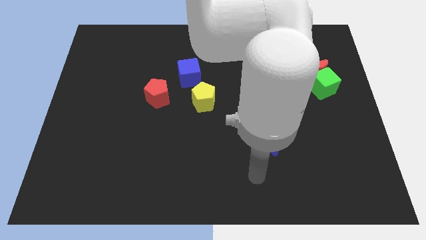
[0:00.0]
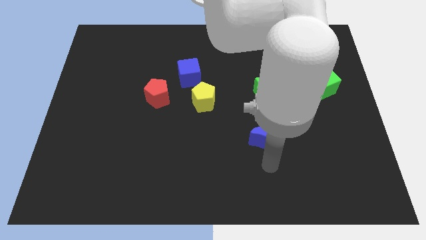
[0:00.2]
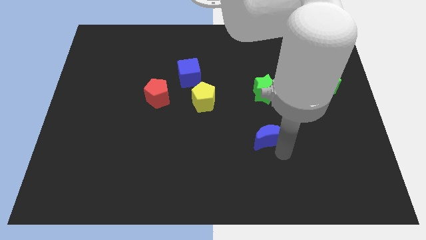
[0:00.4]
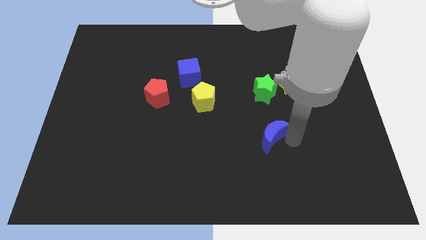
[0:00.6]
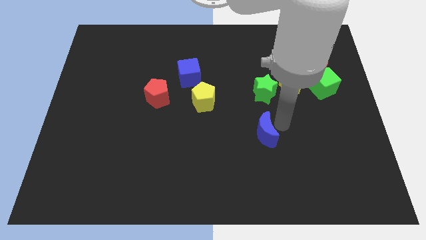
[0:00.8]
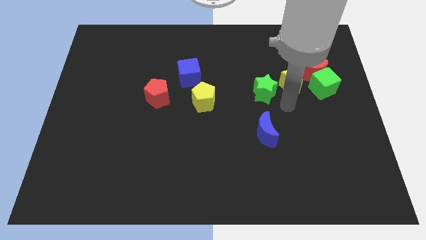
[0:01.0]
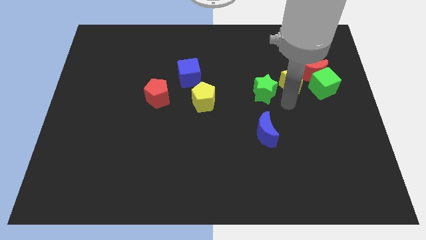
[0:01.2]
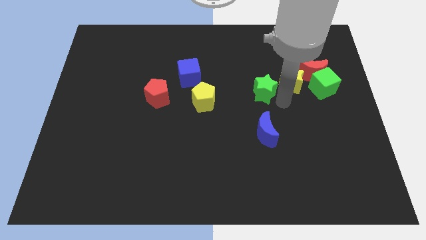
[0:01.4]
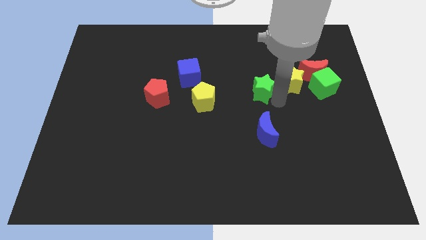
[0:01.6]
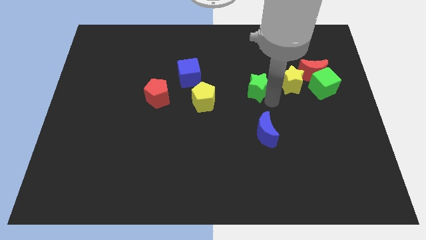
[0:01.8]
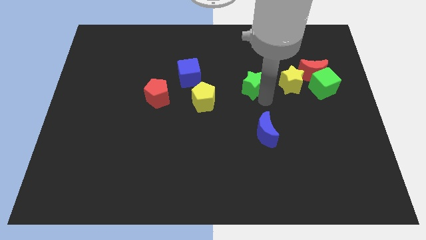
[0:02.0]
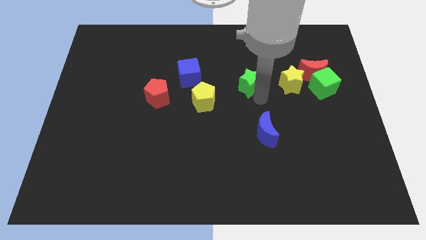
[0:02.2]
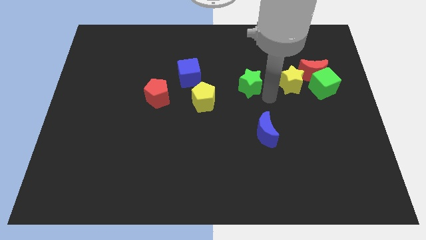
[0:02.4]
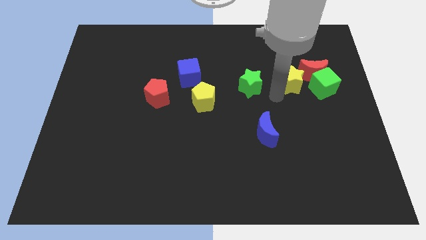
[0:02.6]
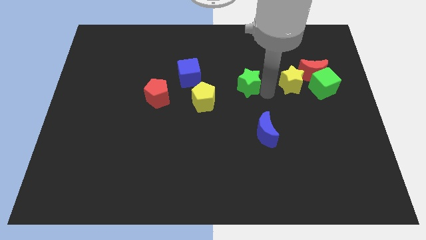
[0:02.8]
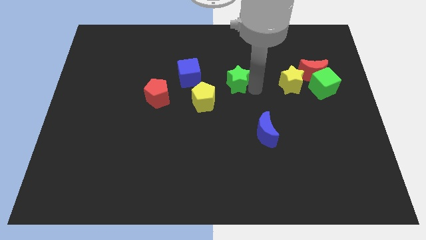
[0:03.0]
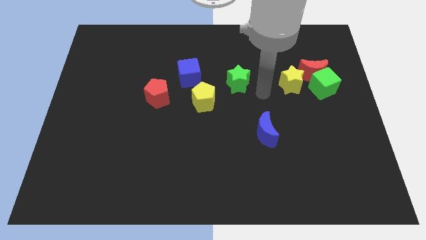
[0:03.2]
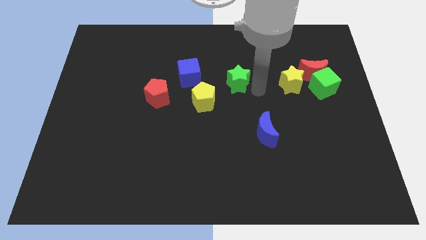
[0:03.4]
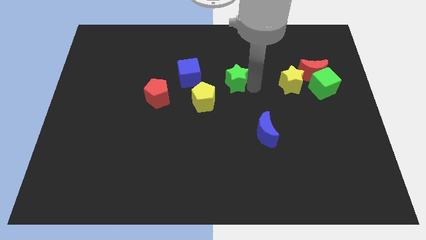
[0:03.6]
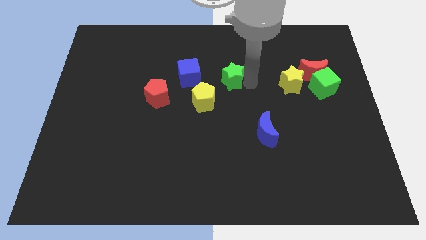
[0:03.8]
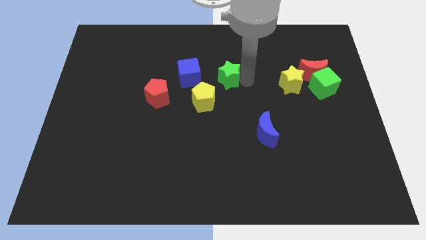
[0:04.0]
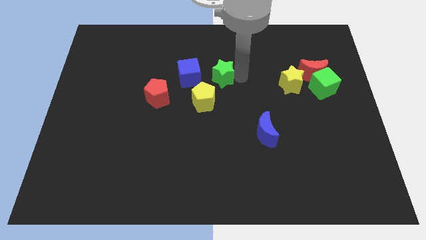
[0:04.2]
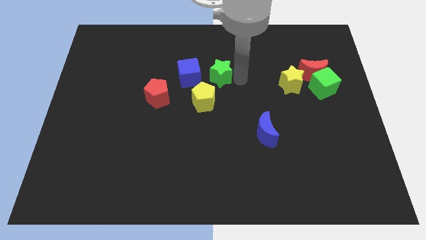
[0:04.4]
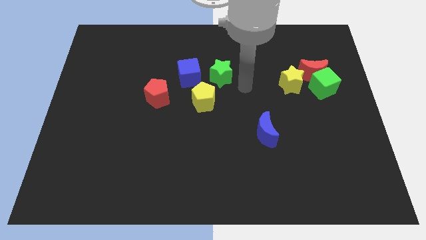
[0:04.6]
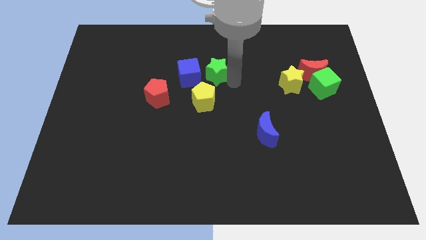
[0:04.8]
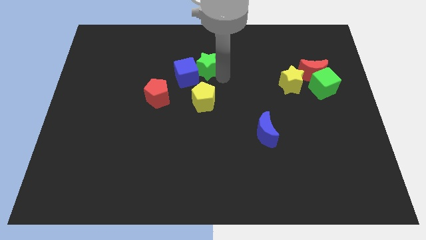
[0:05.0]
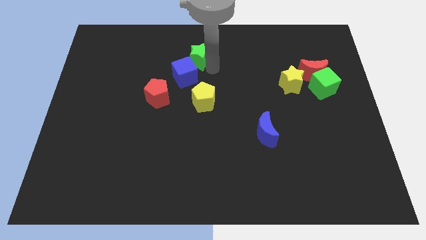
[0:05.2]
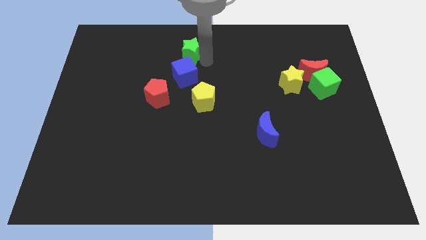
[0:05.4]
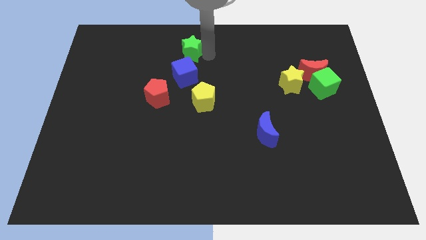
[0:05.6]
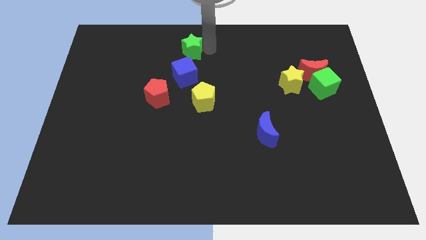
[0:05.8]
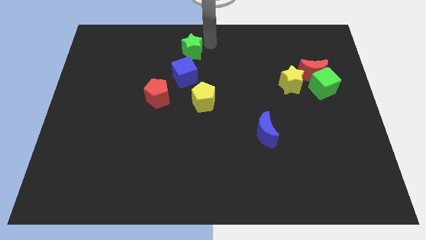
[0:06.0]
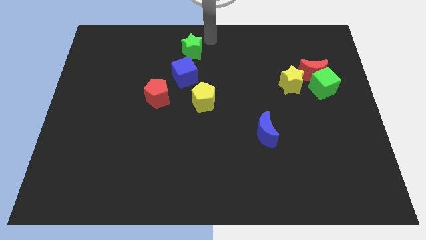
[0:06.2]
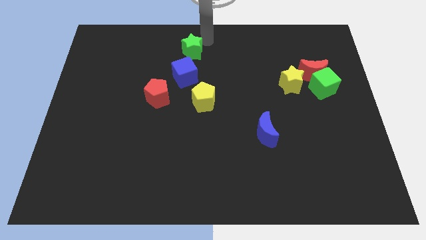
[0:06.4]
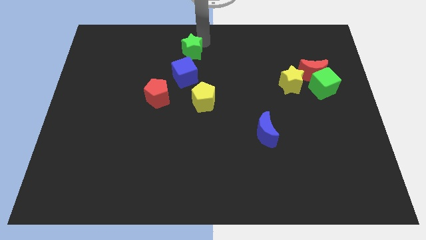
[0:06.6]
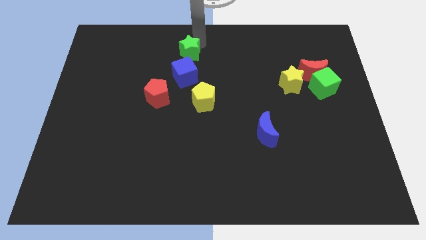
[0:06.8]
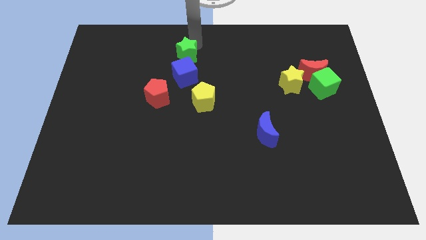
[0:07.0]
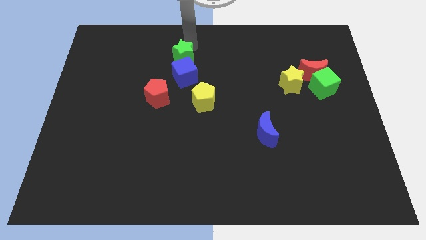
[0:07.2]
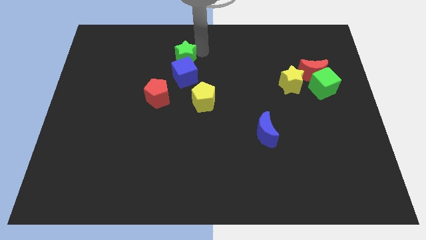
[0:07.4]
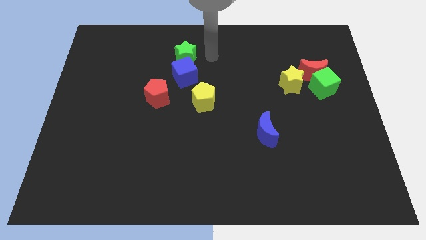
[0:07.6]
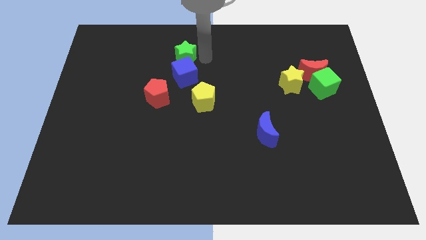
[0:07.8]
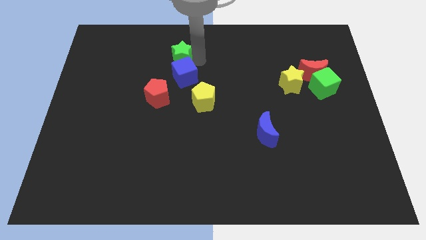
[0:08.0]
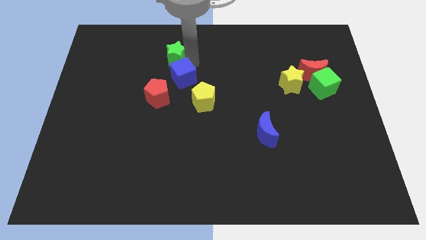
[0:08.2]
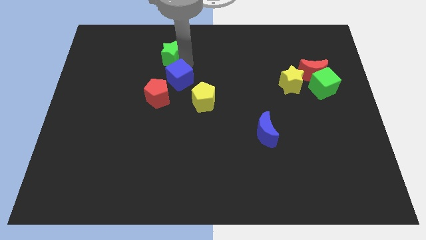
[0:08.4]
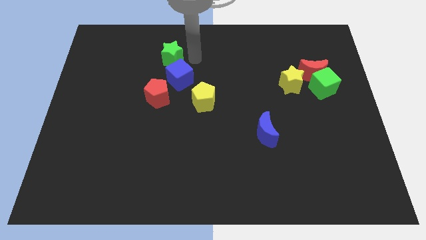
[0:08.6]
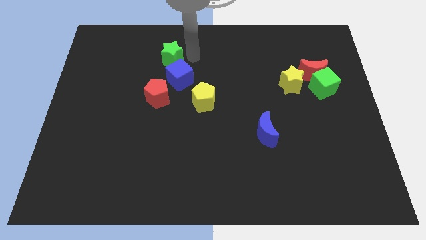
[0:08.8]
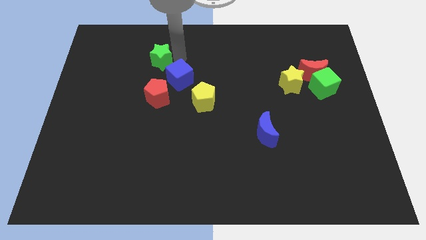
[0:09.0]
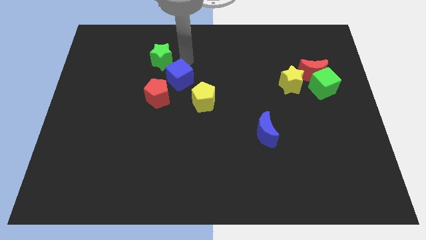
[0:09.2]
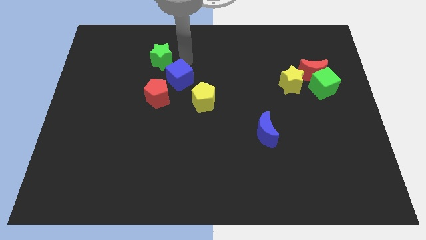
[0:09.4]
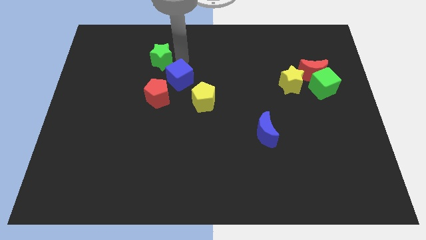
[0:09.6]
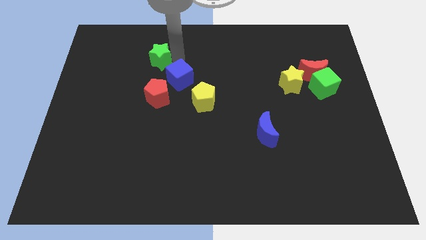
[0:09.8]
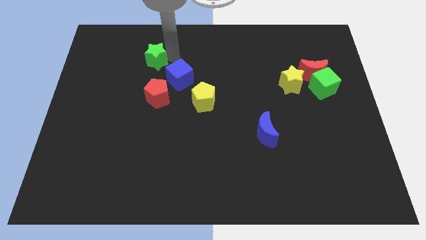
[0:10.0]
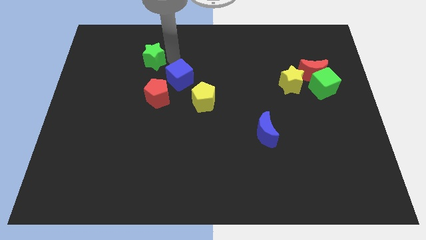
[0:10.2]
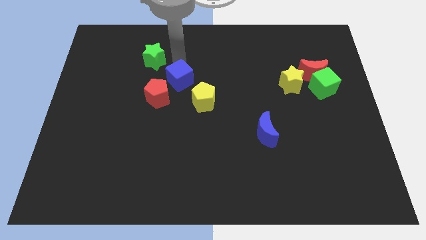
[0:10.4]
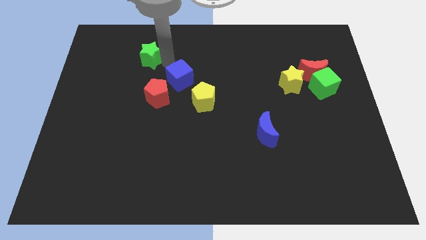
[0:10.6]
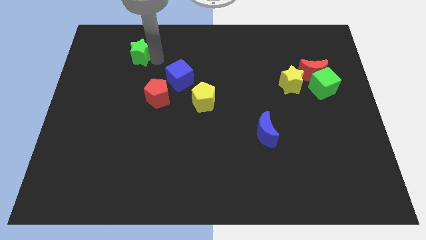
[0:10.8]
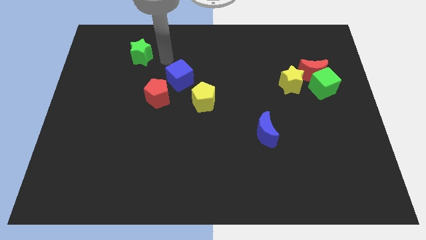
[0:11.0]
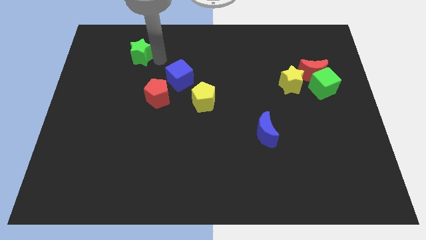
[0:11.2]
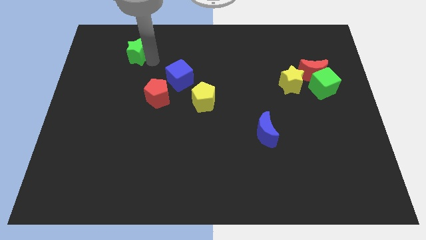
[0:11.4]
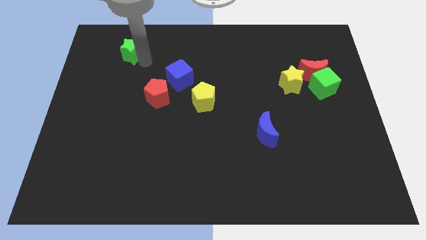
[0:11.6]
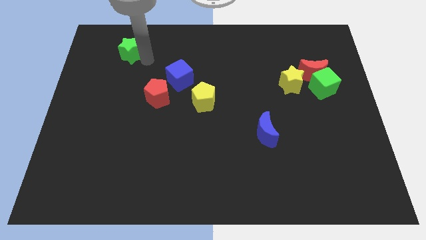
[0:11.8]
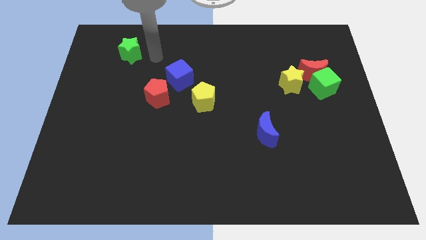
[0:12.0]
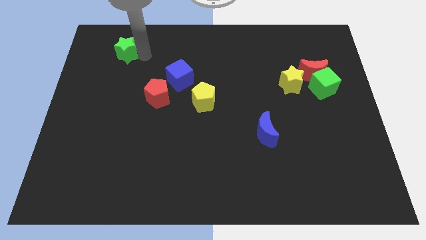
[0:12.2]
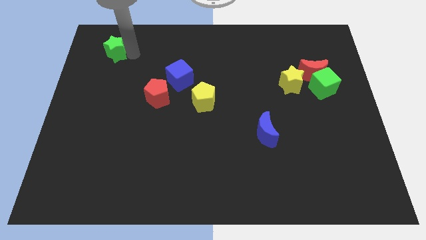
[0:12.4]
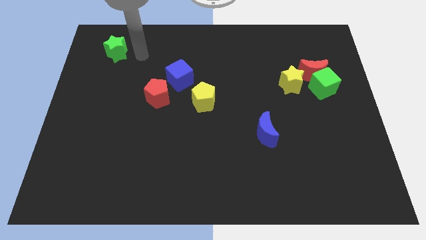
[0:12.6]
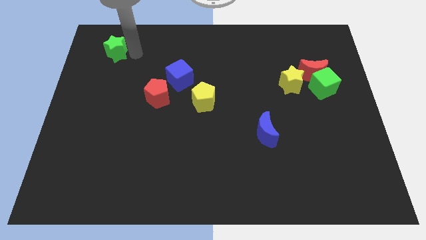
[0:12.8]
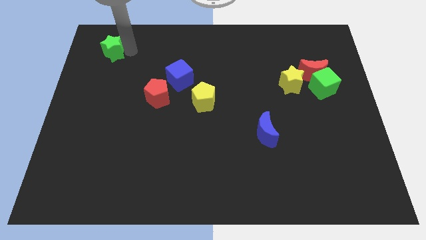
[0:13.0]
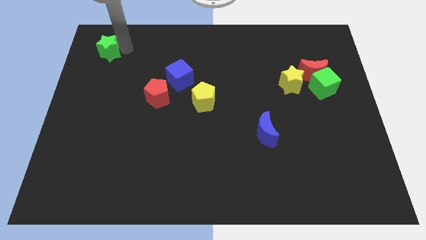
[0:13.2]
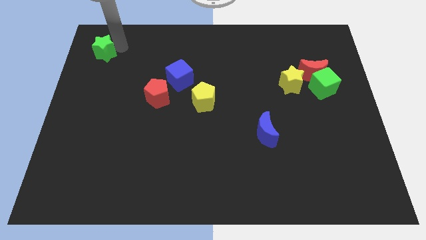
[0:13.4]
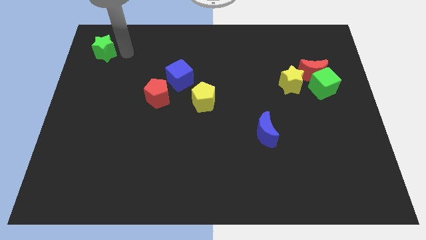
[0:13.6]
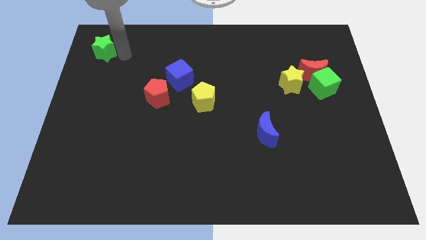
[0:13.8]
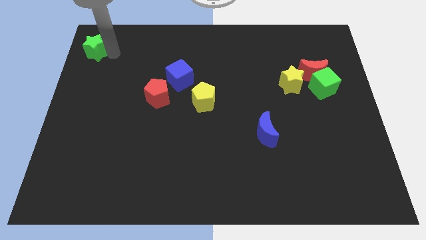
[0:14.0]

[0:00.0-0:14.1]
slide the green star to the top left of the board
